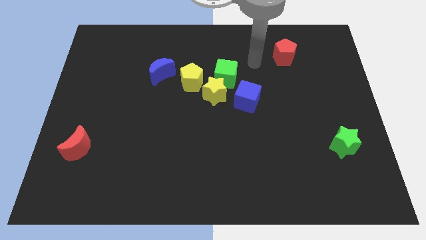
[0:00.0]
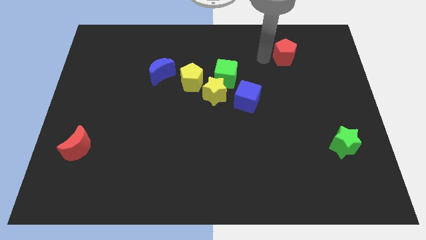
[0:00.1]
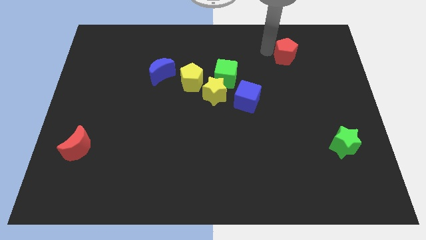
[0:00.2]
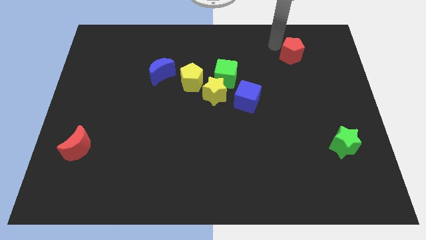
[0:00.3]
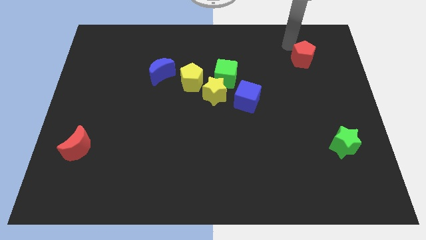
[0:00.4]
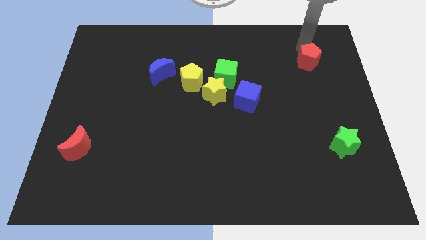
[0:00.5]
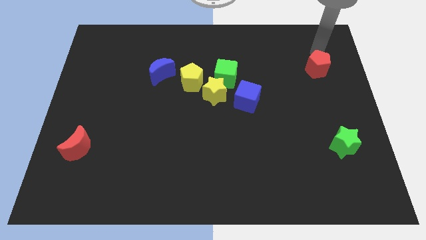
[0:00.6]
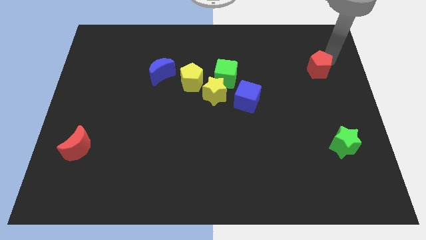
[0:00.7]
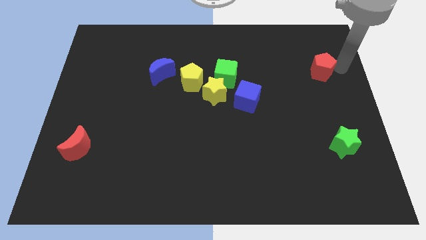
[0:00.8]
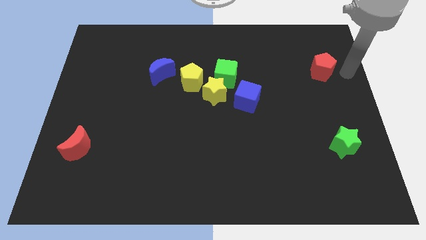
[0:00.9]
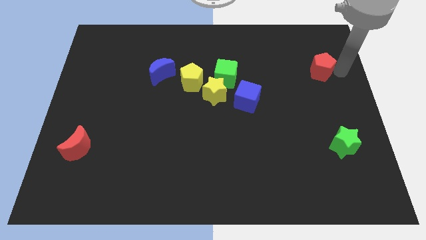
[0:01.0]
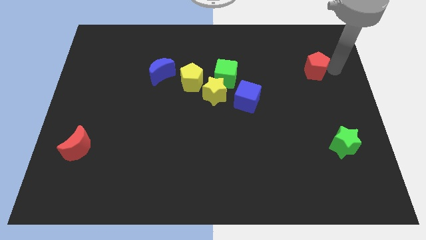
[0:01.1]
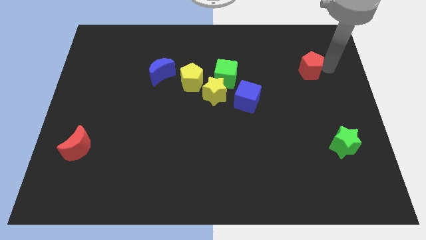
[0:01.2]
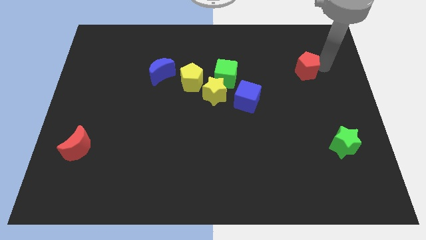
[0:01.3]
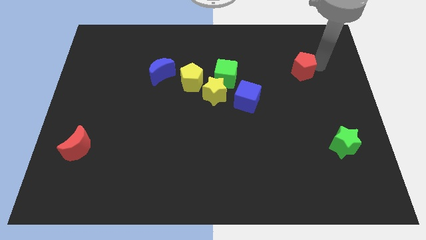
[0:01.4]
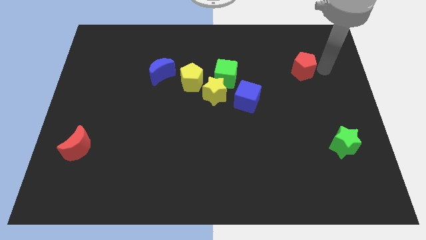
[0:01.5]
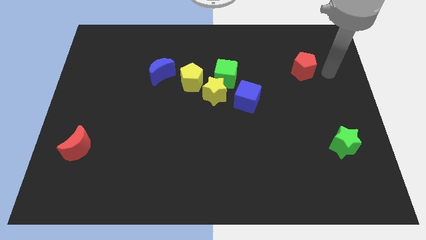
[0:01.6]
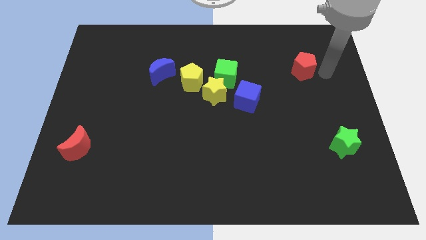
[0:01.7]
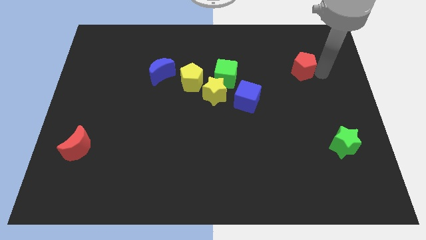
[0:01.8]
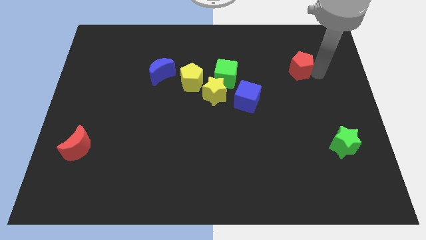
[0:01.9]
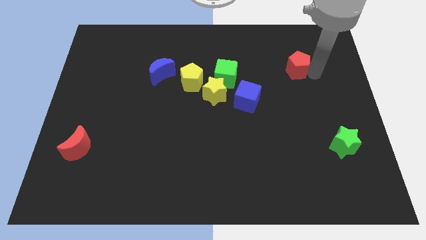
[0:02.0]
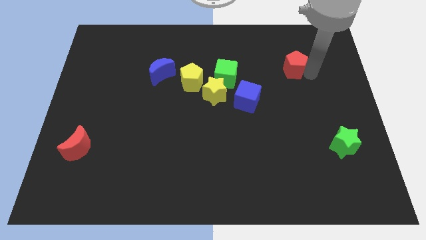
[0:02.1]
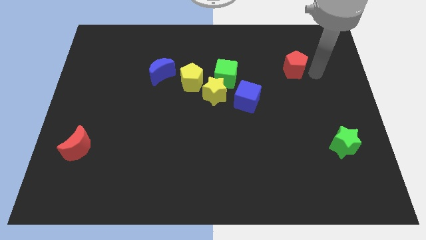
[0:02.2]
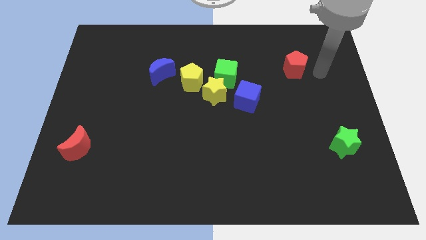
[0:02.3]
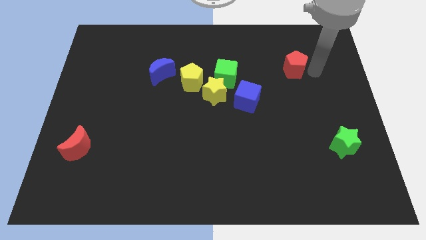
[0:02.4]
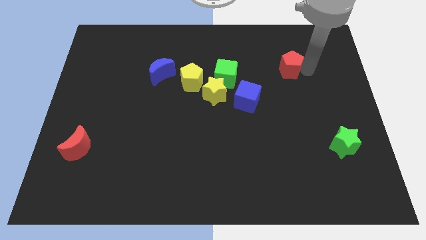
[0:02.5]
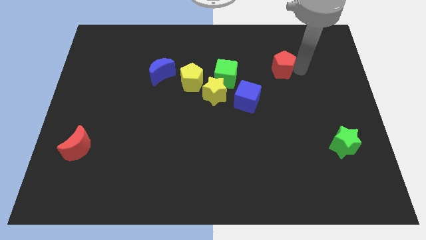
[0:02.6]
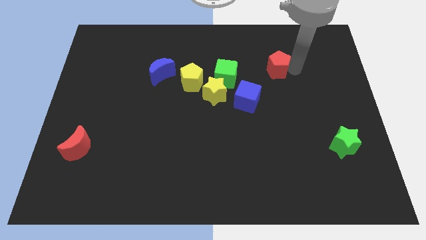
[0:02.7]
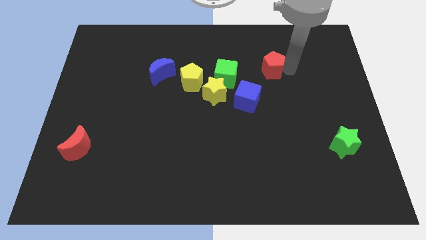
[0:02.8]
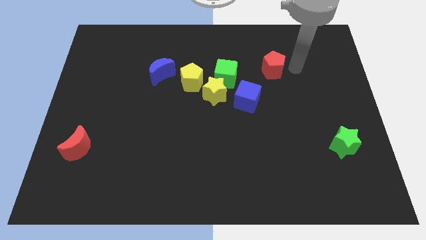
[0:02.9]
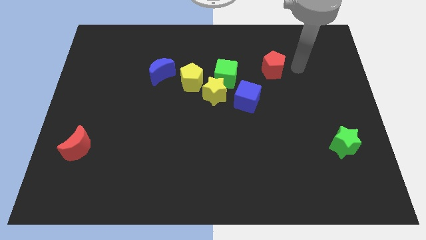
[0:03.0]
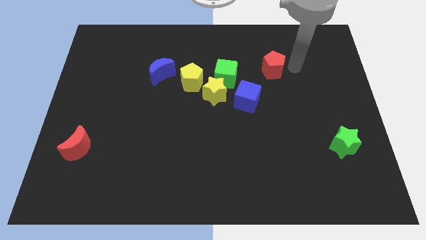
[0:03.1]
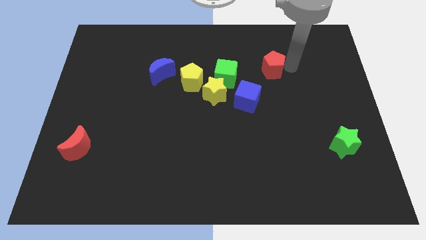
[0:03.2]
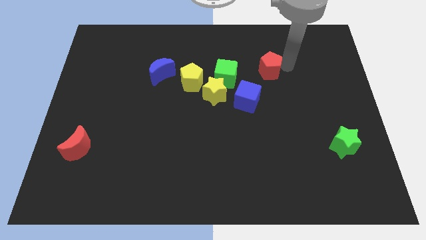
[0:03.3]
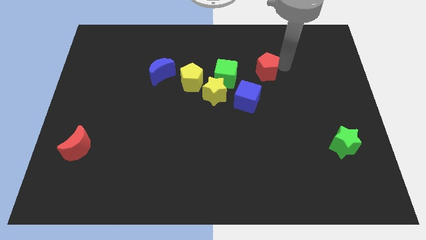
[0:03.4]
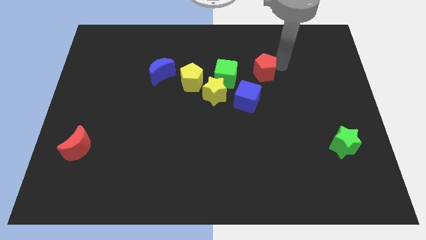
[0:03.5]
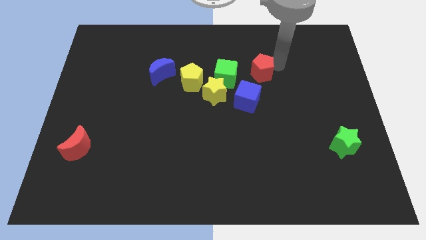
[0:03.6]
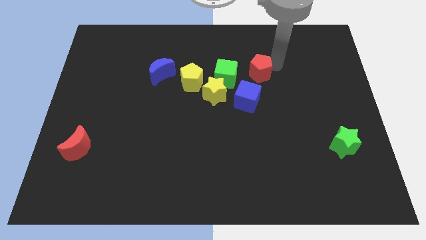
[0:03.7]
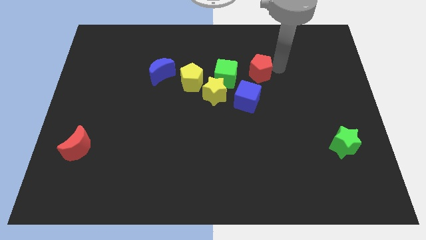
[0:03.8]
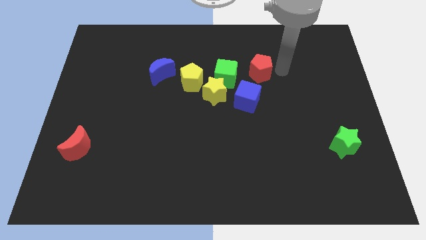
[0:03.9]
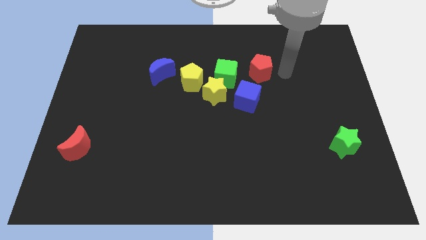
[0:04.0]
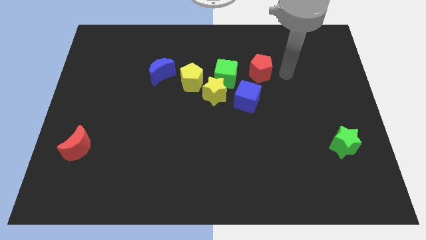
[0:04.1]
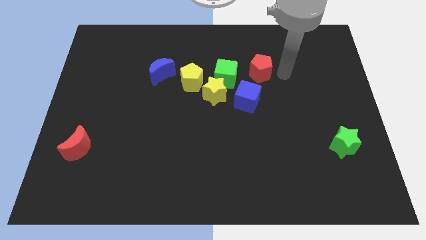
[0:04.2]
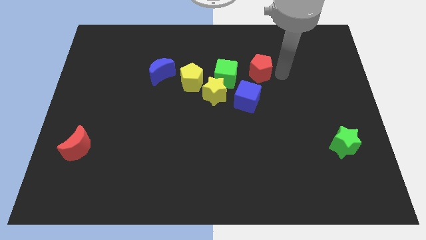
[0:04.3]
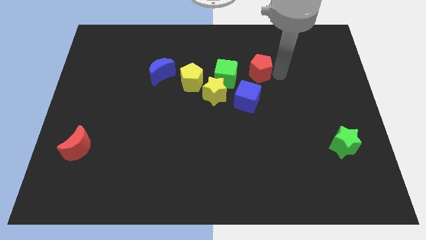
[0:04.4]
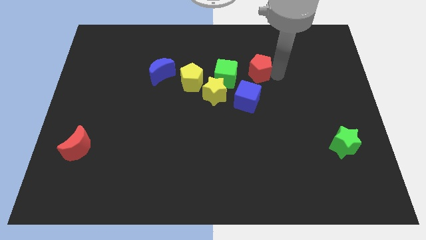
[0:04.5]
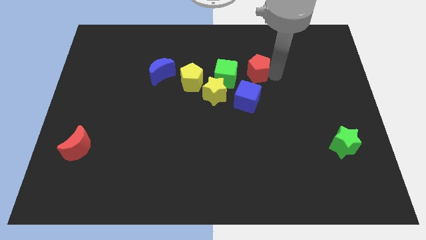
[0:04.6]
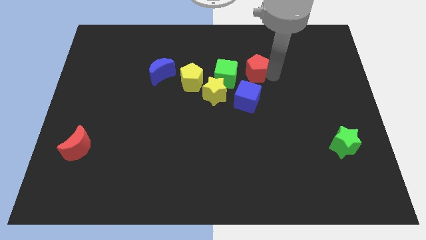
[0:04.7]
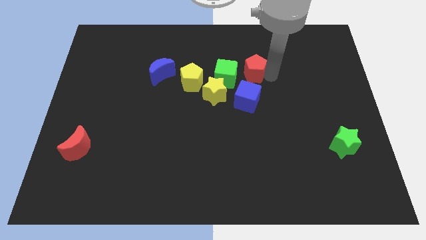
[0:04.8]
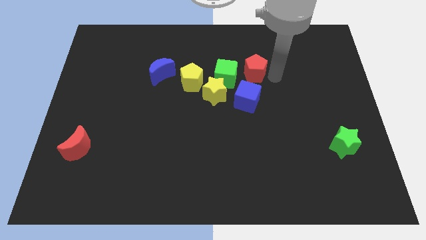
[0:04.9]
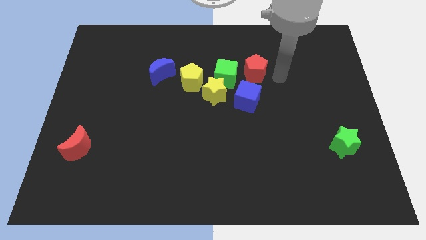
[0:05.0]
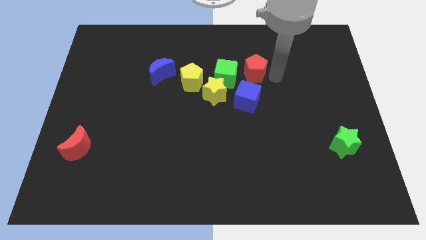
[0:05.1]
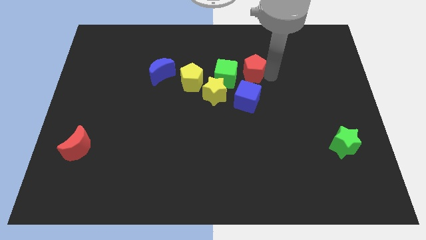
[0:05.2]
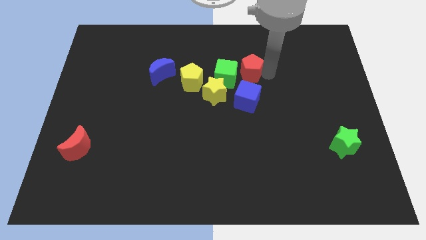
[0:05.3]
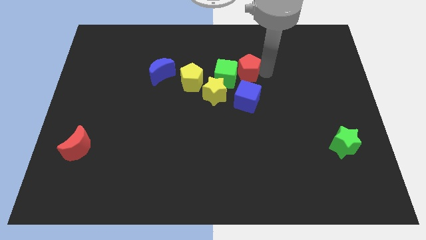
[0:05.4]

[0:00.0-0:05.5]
move the red pentagon close to the green cube

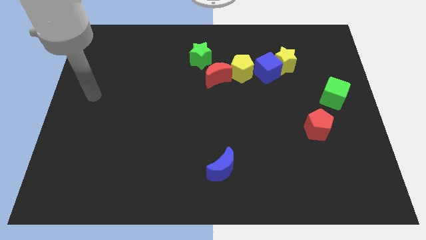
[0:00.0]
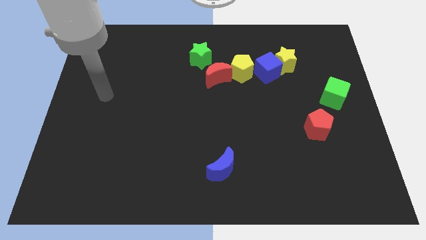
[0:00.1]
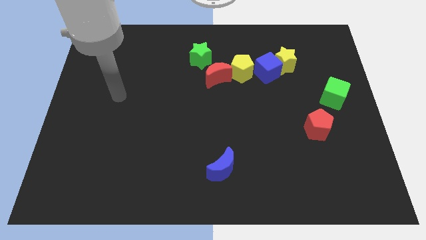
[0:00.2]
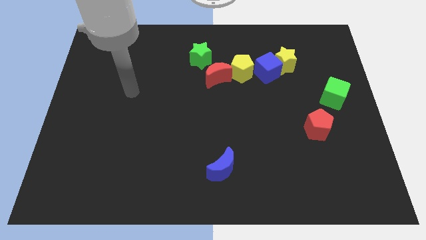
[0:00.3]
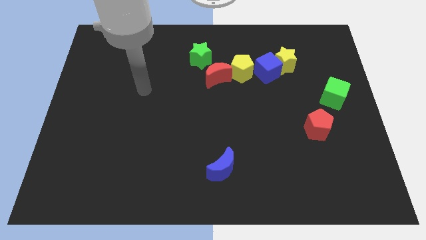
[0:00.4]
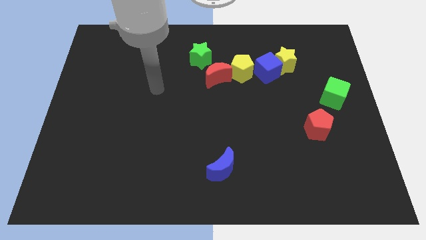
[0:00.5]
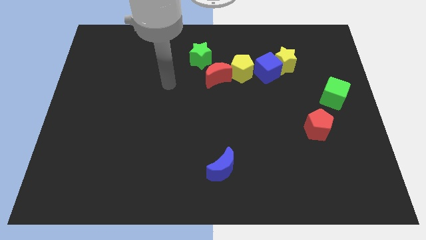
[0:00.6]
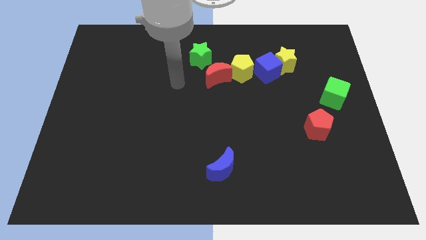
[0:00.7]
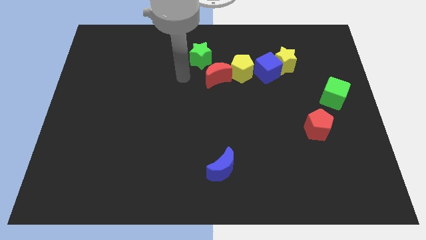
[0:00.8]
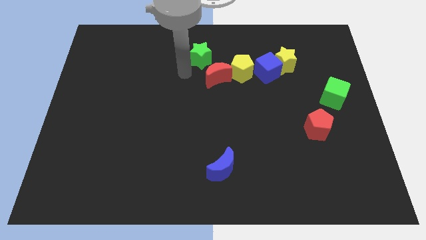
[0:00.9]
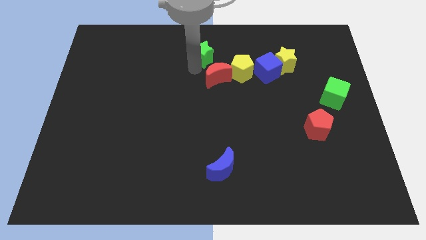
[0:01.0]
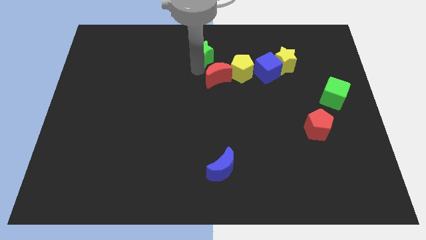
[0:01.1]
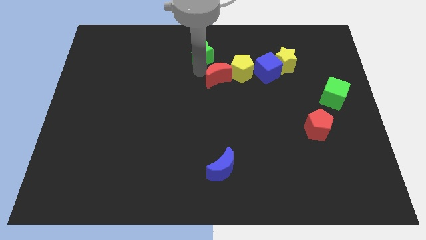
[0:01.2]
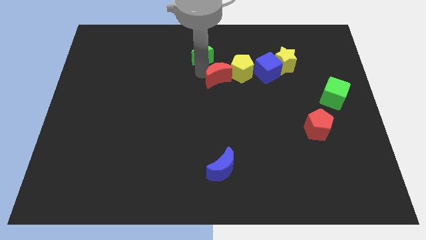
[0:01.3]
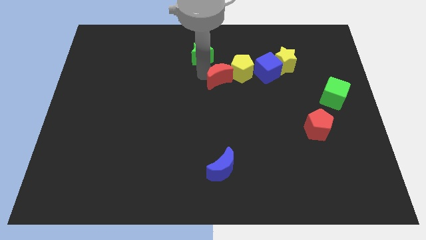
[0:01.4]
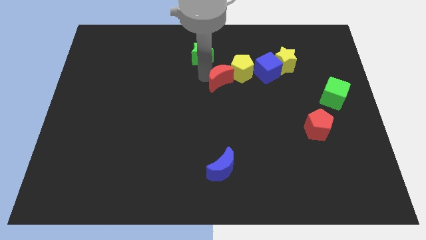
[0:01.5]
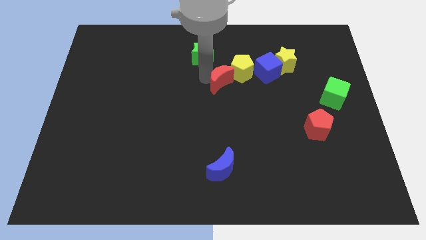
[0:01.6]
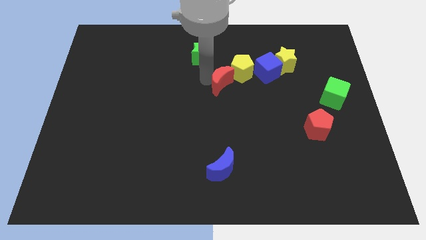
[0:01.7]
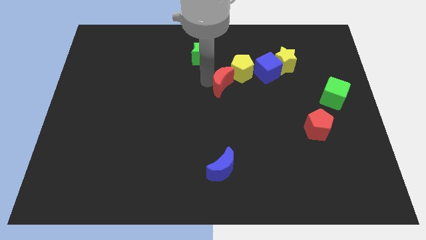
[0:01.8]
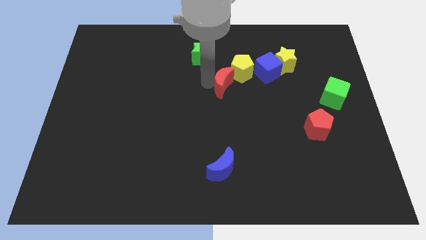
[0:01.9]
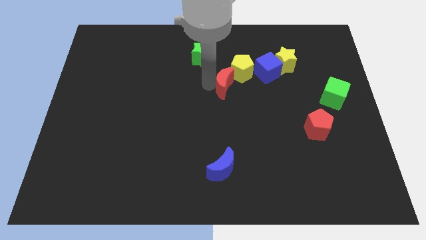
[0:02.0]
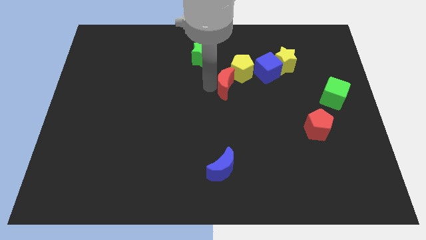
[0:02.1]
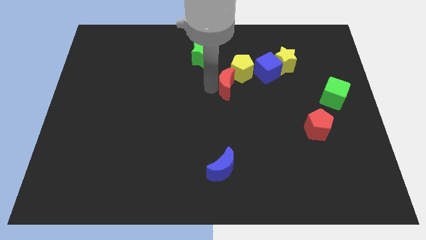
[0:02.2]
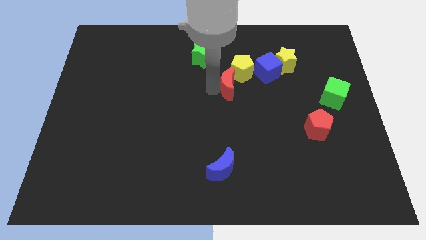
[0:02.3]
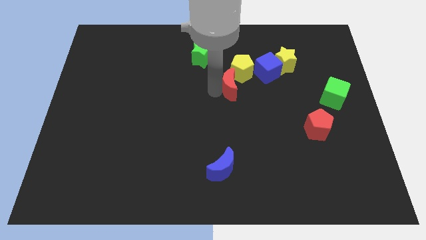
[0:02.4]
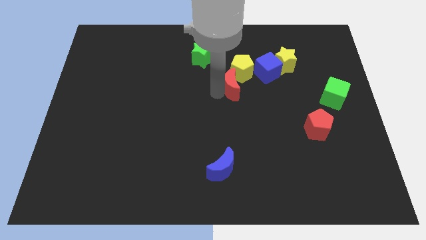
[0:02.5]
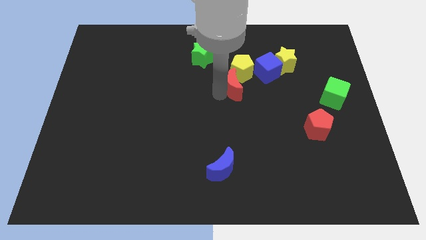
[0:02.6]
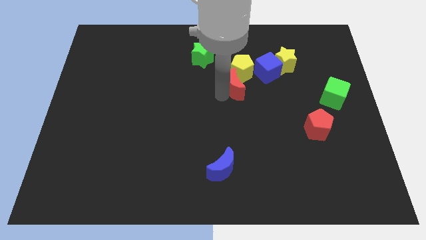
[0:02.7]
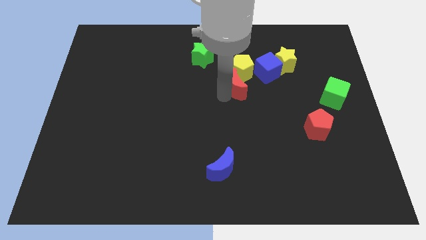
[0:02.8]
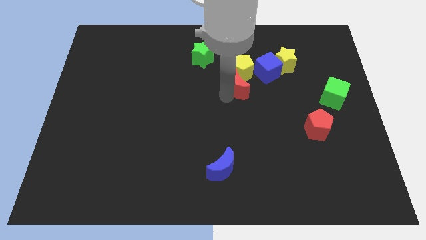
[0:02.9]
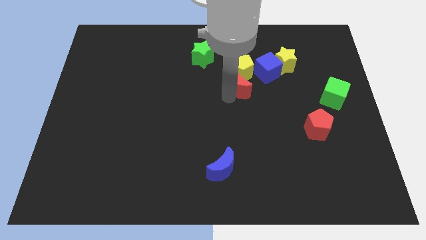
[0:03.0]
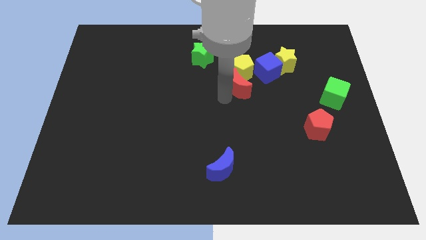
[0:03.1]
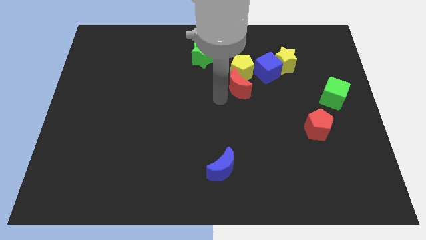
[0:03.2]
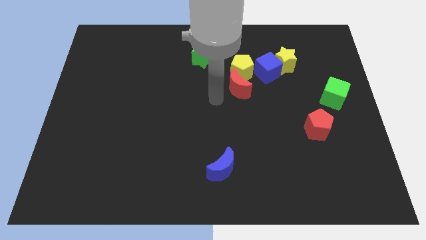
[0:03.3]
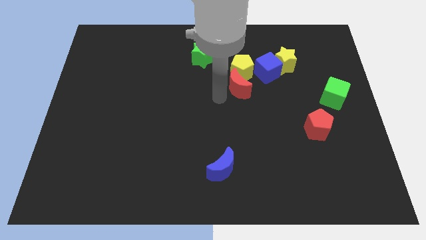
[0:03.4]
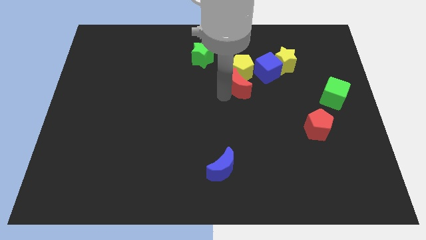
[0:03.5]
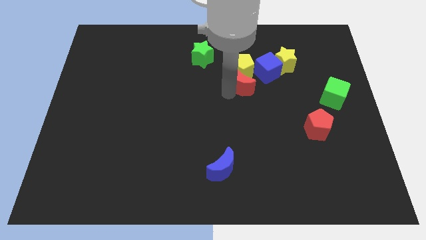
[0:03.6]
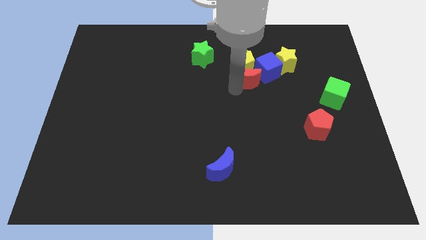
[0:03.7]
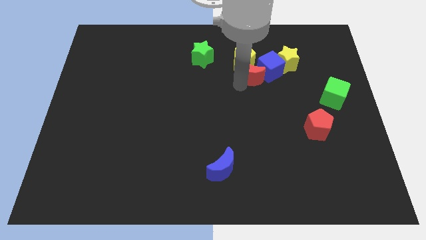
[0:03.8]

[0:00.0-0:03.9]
move the red moon close to the blue cube
